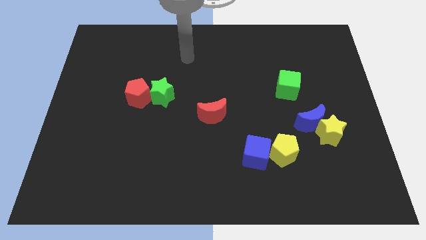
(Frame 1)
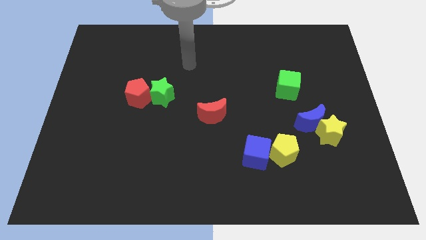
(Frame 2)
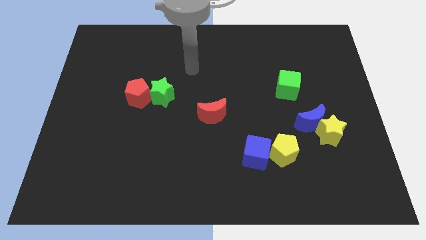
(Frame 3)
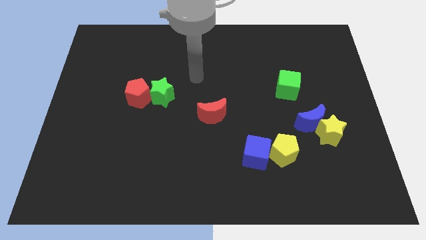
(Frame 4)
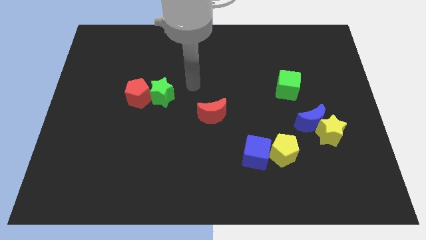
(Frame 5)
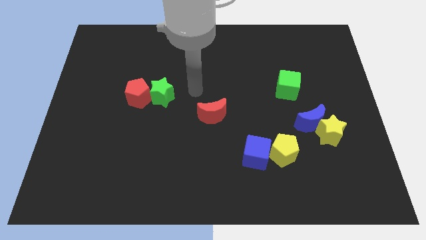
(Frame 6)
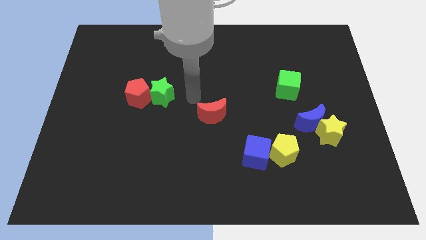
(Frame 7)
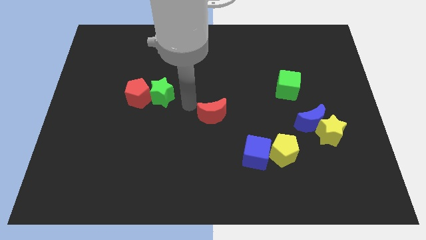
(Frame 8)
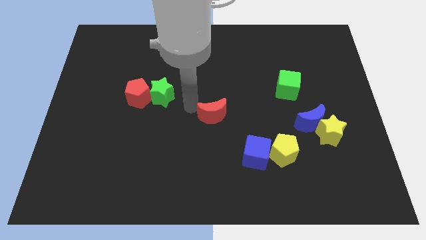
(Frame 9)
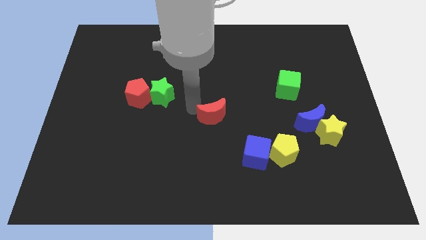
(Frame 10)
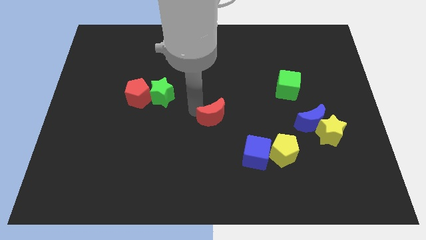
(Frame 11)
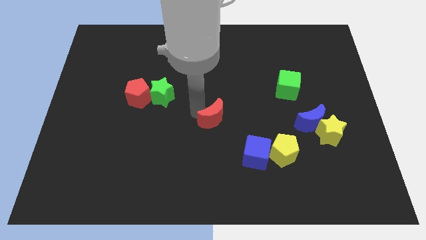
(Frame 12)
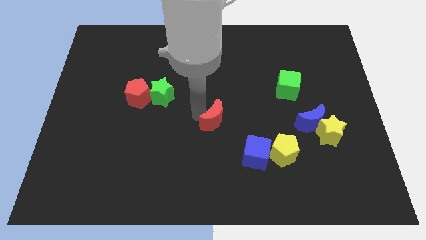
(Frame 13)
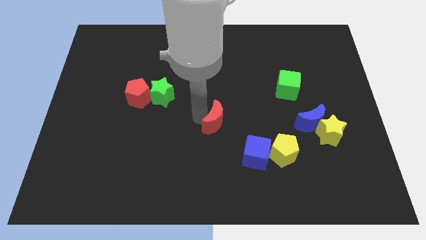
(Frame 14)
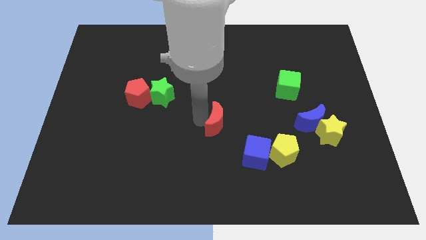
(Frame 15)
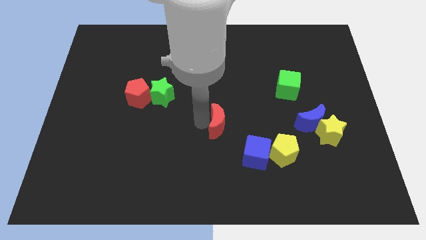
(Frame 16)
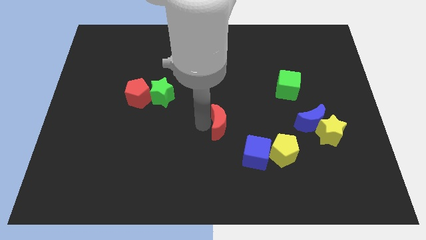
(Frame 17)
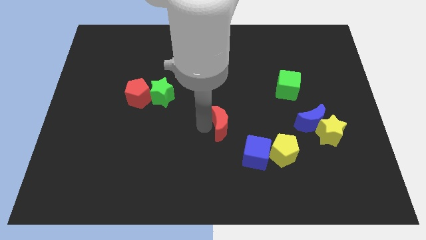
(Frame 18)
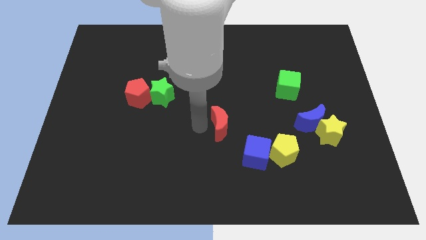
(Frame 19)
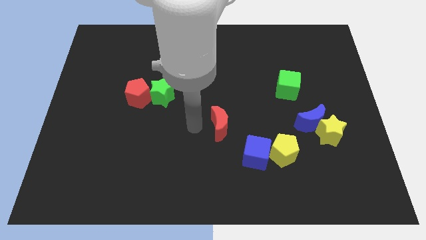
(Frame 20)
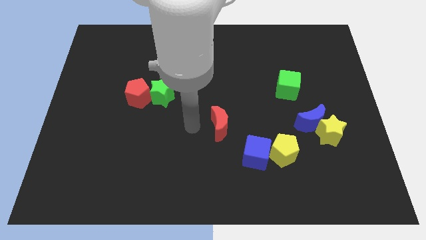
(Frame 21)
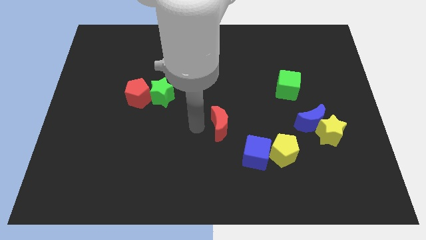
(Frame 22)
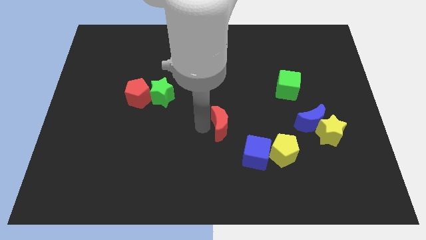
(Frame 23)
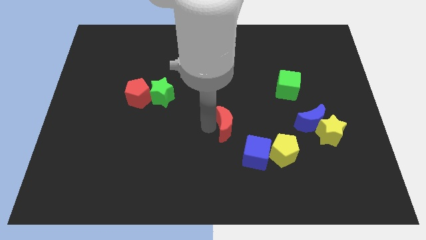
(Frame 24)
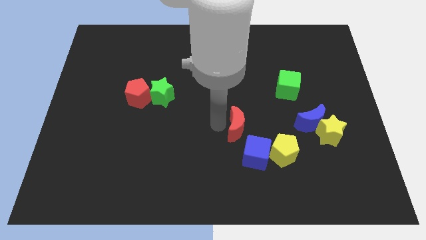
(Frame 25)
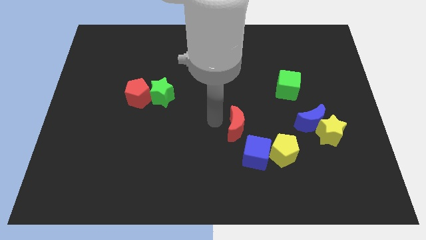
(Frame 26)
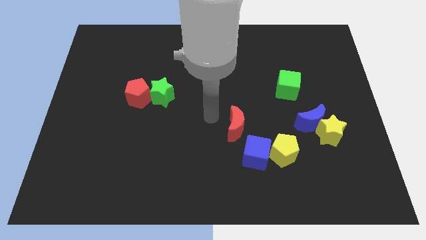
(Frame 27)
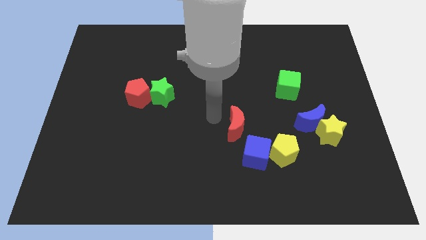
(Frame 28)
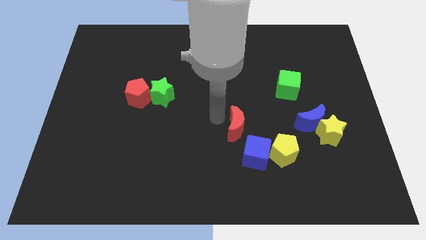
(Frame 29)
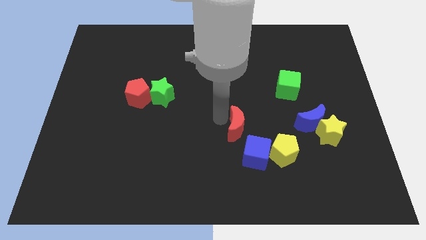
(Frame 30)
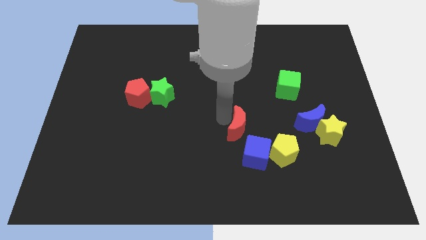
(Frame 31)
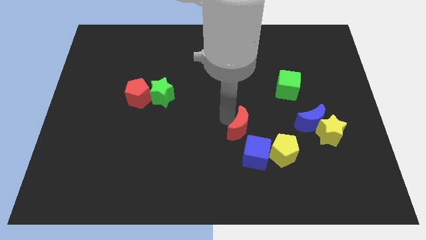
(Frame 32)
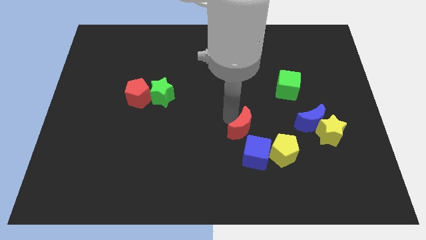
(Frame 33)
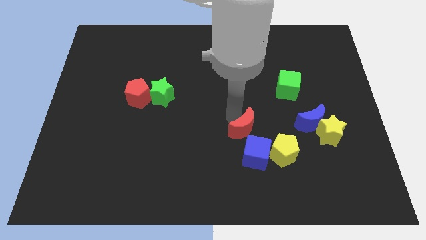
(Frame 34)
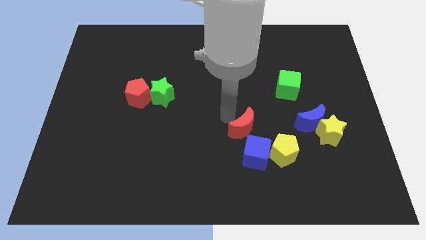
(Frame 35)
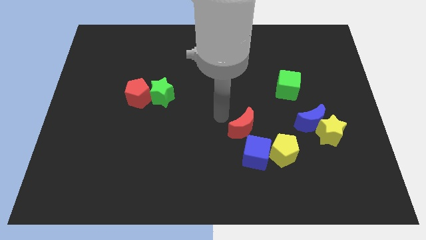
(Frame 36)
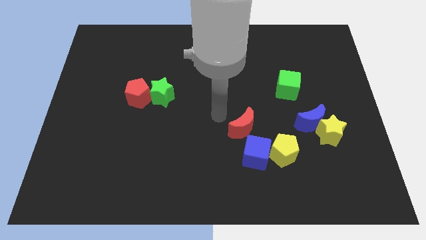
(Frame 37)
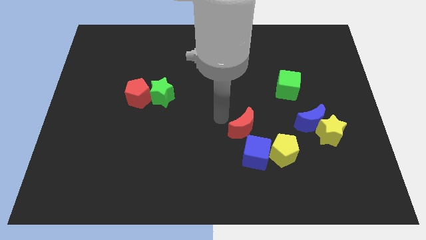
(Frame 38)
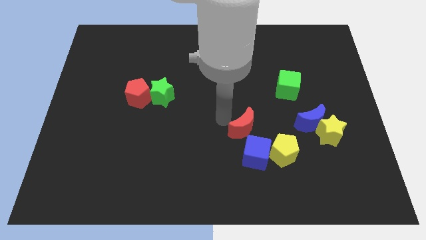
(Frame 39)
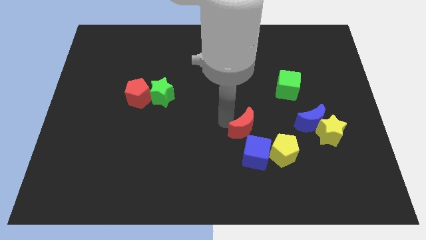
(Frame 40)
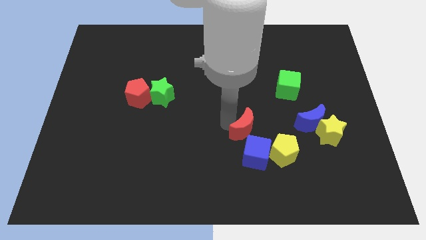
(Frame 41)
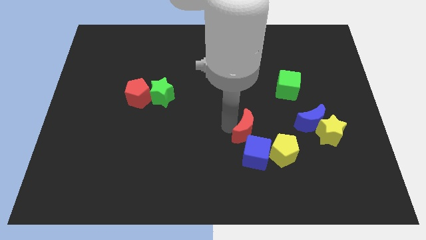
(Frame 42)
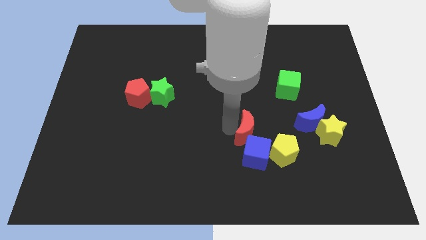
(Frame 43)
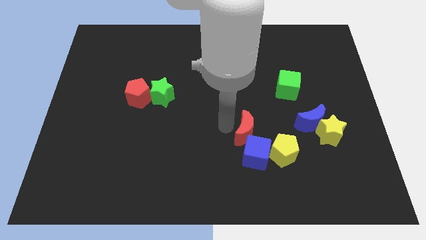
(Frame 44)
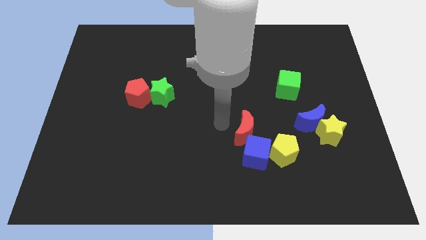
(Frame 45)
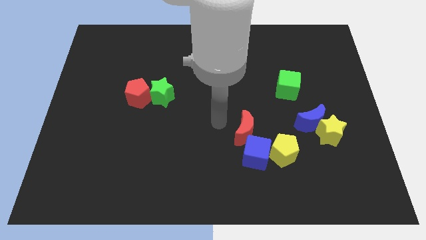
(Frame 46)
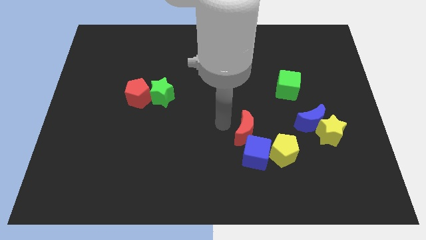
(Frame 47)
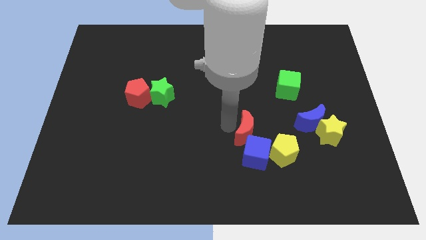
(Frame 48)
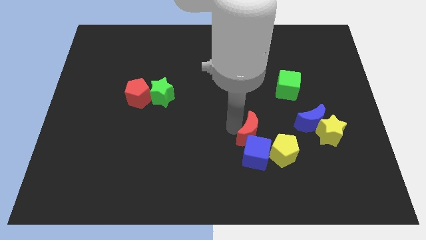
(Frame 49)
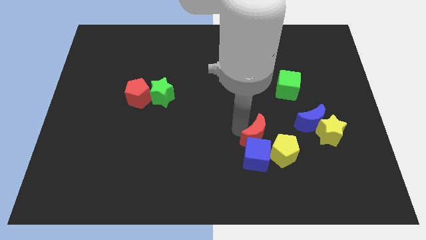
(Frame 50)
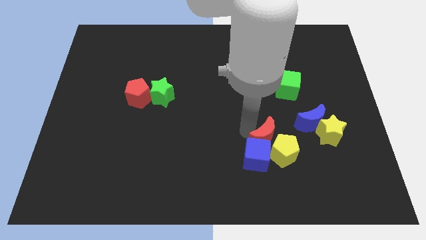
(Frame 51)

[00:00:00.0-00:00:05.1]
put the red moon next to the yellow pentagon

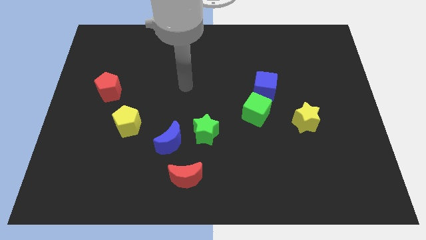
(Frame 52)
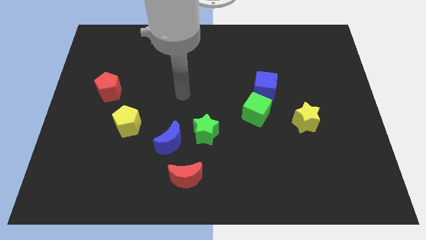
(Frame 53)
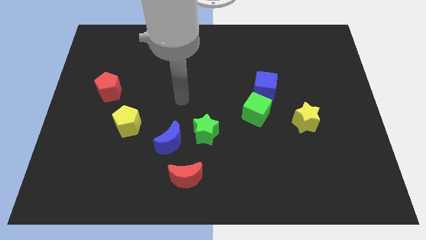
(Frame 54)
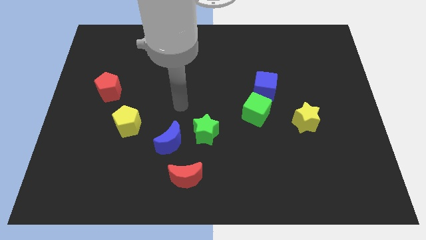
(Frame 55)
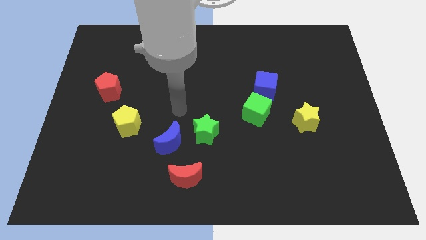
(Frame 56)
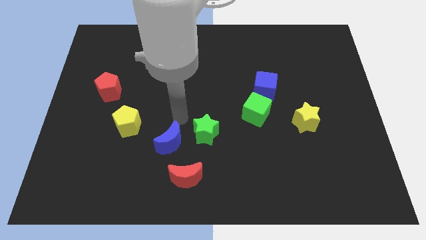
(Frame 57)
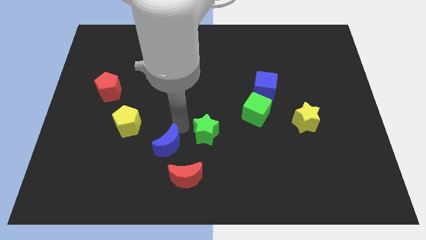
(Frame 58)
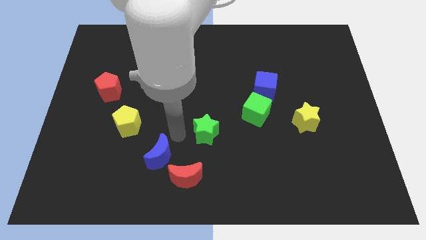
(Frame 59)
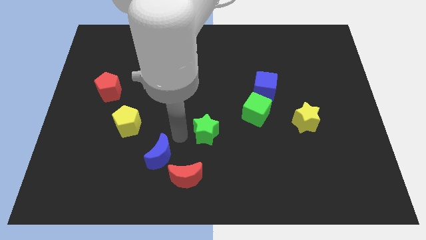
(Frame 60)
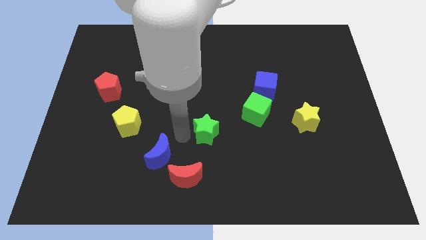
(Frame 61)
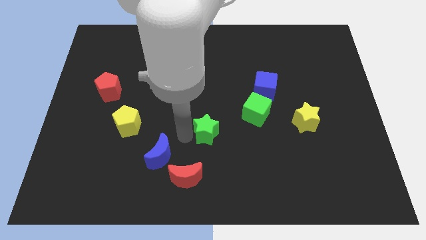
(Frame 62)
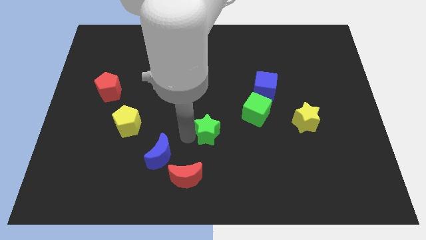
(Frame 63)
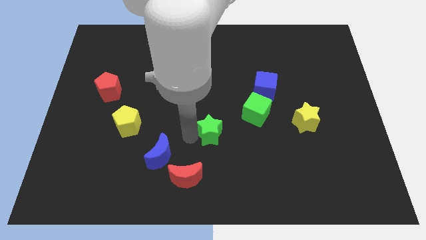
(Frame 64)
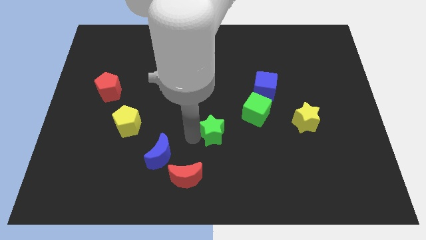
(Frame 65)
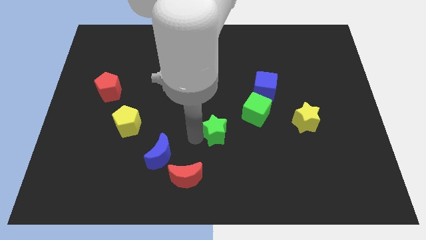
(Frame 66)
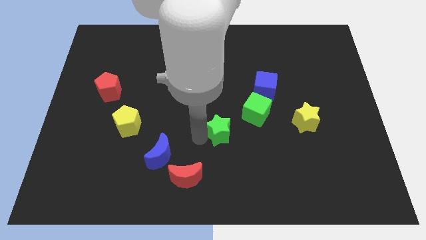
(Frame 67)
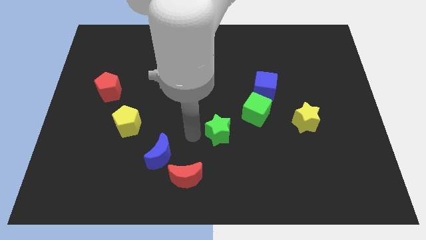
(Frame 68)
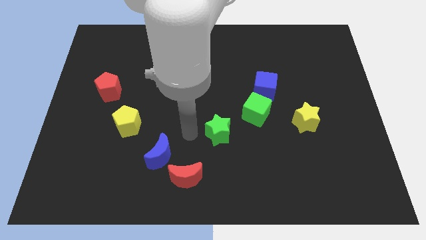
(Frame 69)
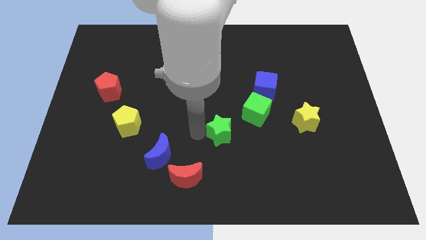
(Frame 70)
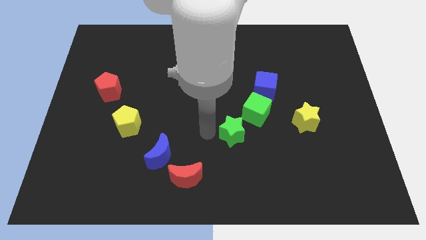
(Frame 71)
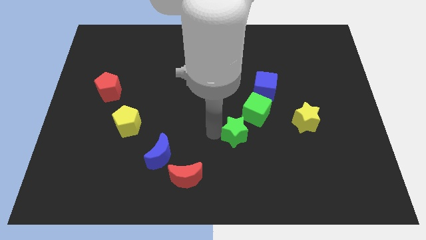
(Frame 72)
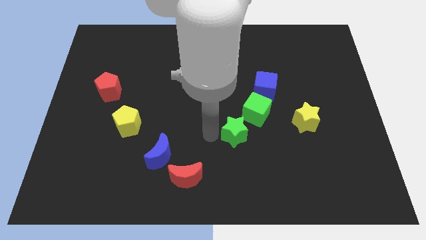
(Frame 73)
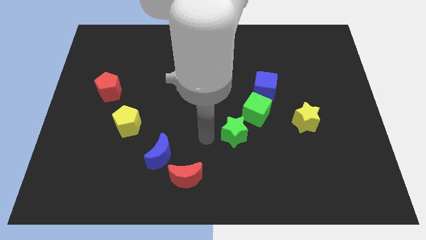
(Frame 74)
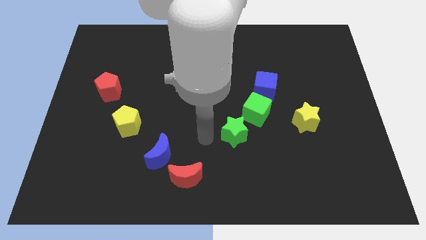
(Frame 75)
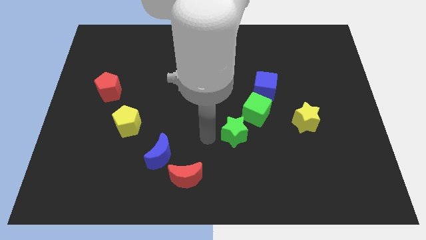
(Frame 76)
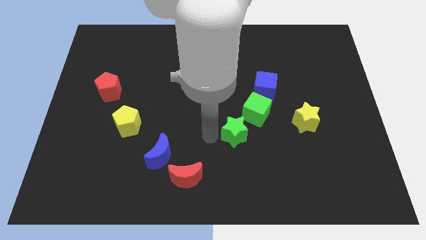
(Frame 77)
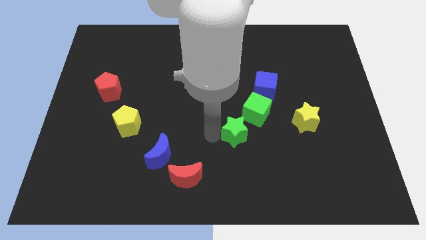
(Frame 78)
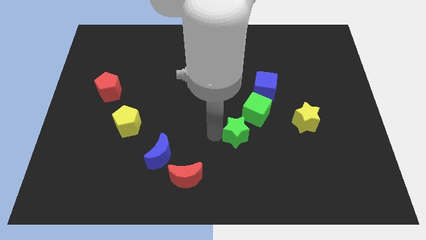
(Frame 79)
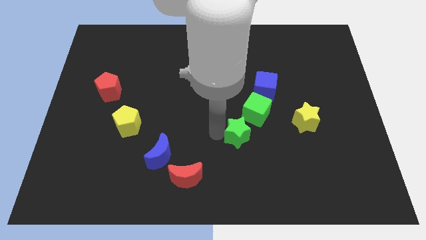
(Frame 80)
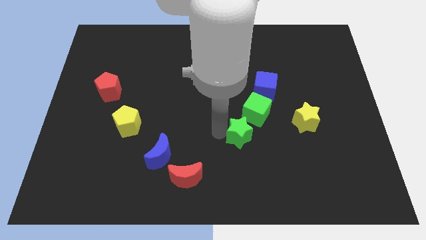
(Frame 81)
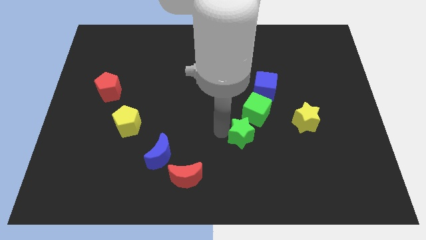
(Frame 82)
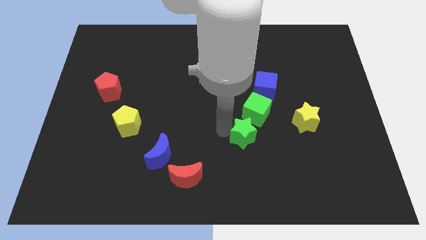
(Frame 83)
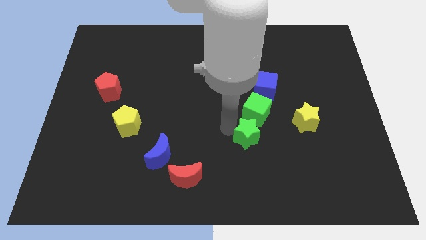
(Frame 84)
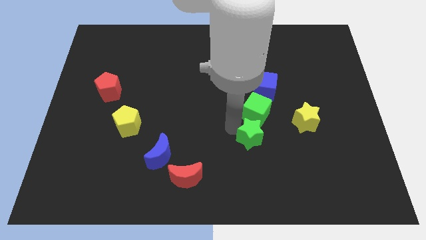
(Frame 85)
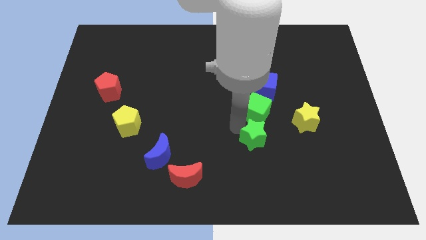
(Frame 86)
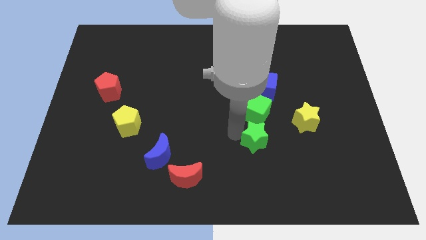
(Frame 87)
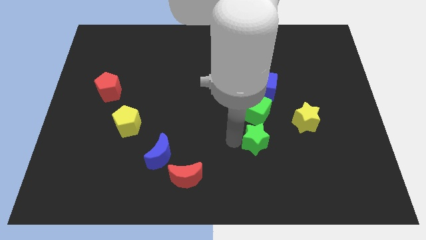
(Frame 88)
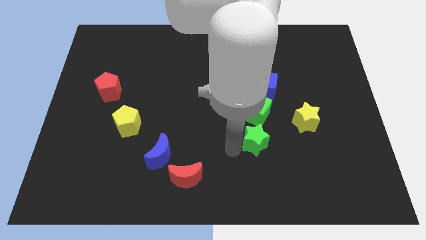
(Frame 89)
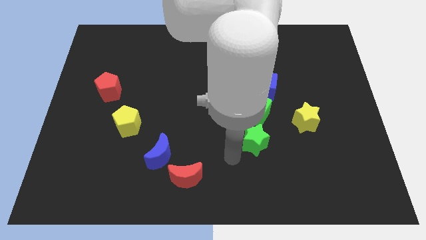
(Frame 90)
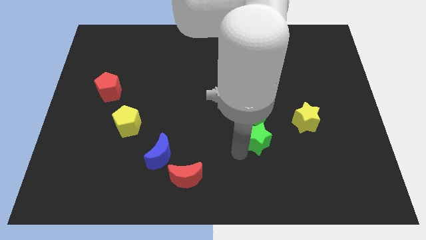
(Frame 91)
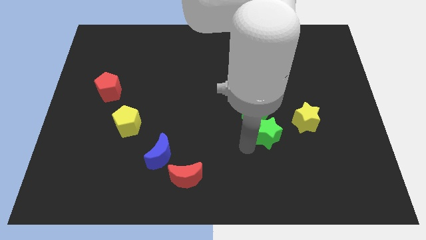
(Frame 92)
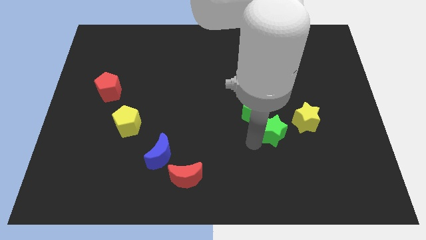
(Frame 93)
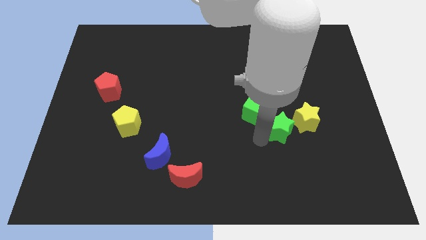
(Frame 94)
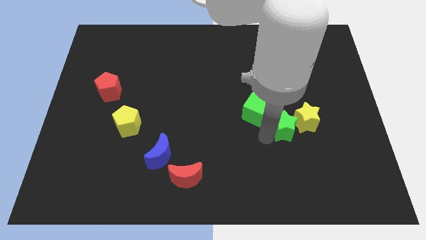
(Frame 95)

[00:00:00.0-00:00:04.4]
move the green star close to the yellow star
